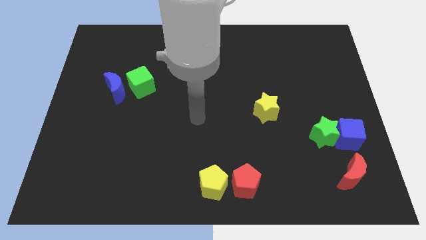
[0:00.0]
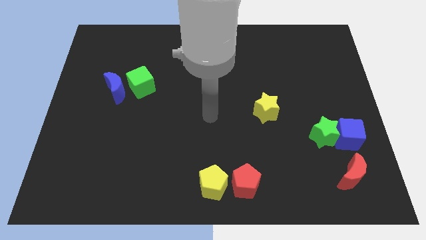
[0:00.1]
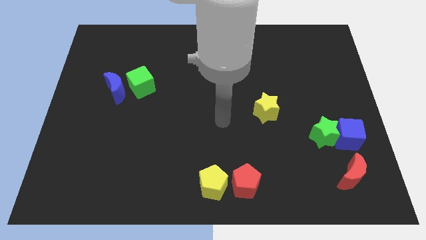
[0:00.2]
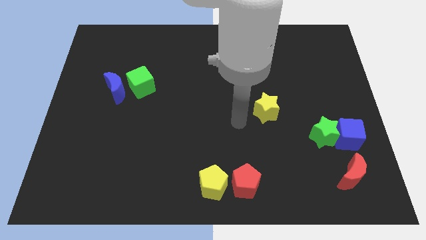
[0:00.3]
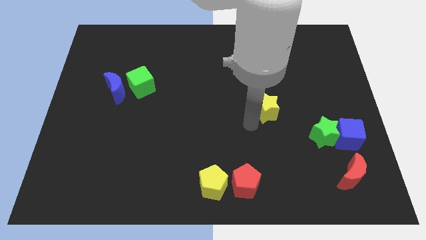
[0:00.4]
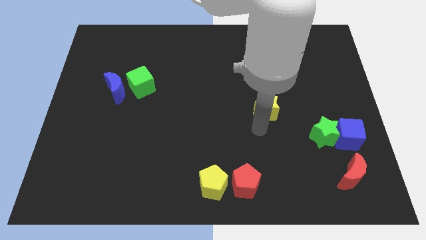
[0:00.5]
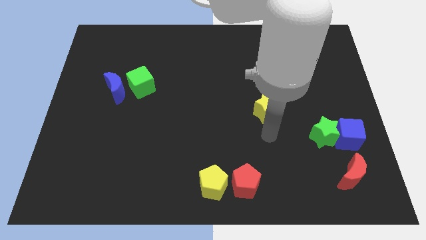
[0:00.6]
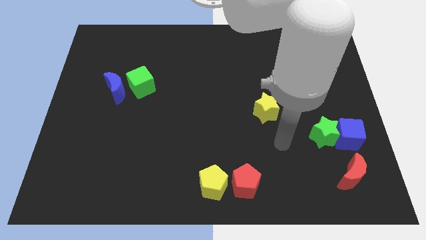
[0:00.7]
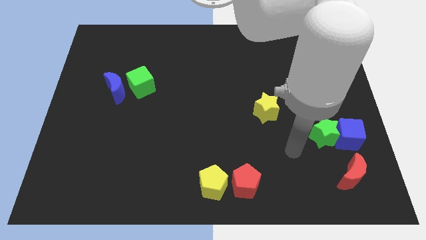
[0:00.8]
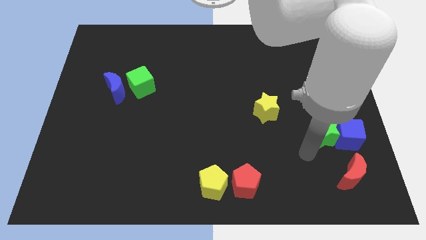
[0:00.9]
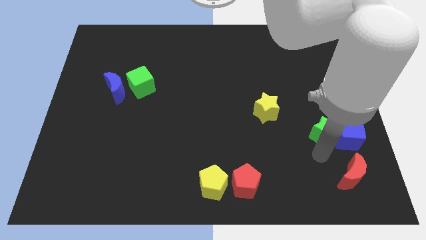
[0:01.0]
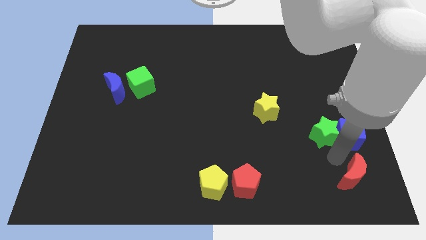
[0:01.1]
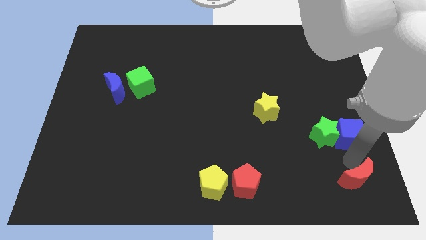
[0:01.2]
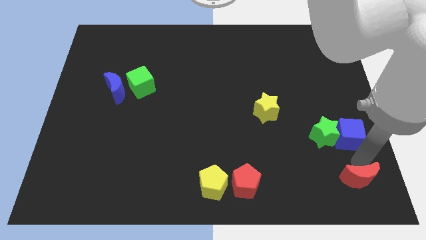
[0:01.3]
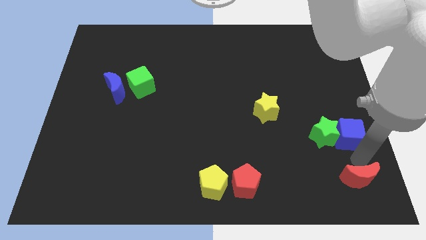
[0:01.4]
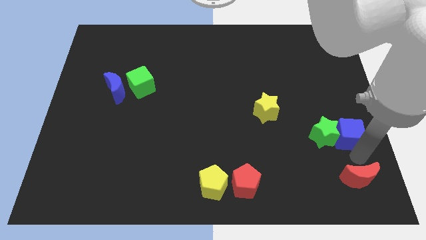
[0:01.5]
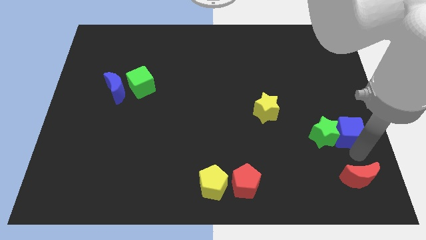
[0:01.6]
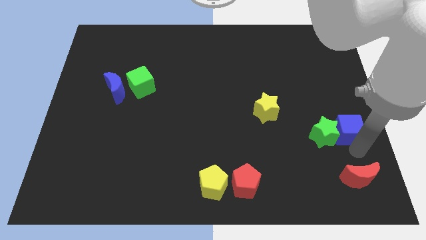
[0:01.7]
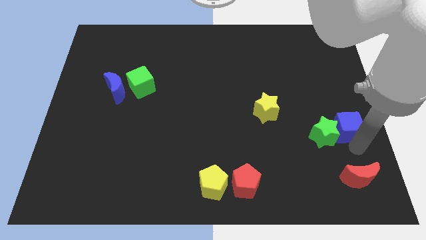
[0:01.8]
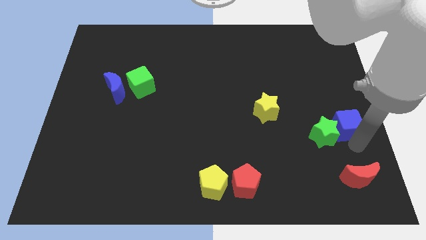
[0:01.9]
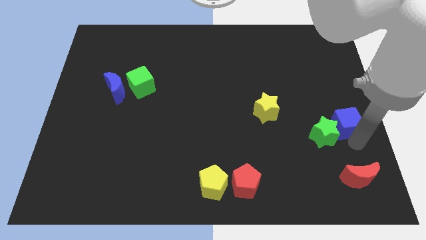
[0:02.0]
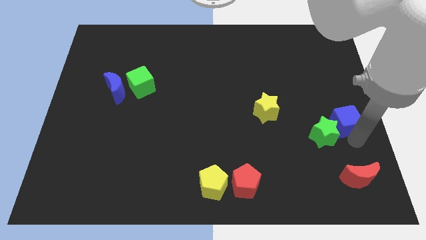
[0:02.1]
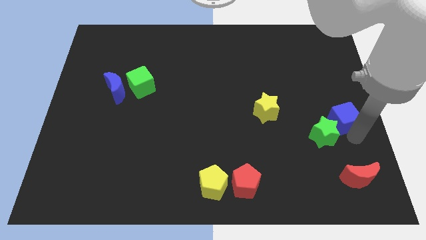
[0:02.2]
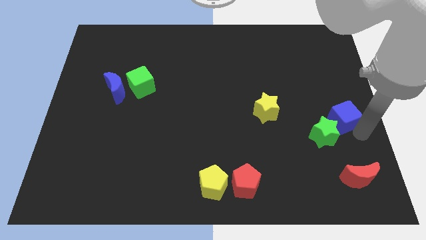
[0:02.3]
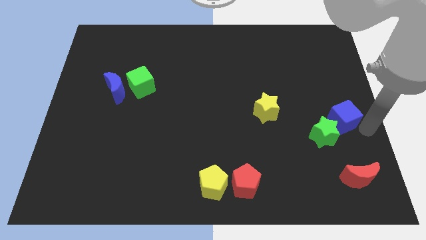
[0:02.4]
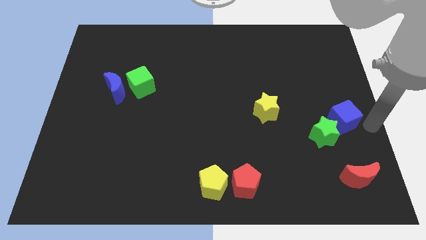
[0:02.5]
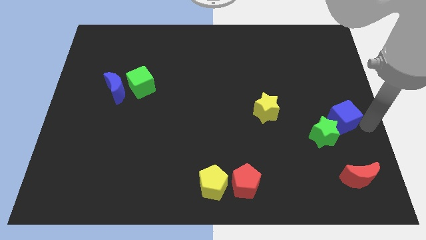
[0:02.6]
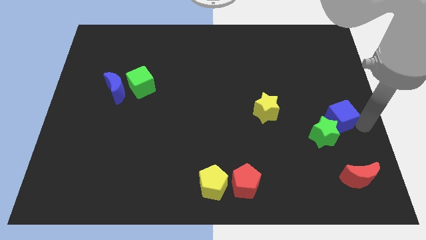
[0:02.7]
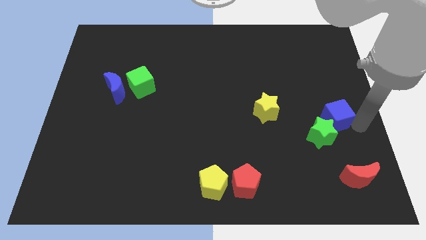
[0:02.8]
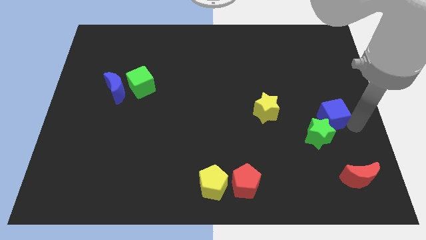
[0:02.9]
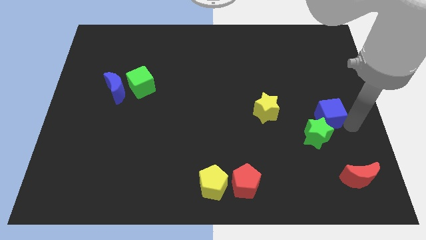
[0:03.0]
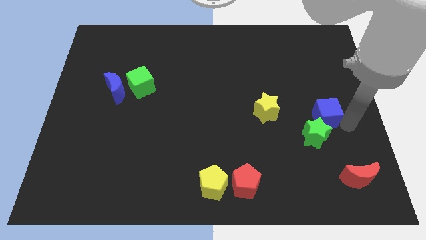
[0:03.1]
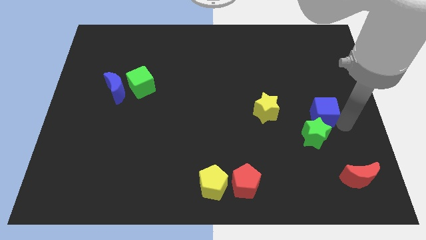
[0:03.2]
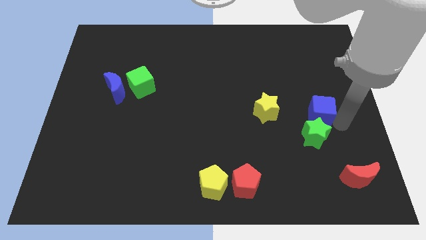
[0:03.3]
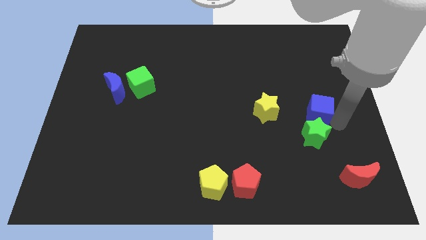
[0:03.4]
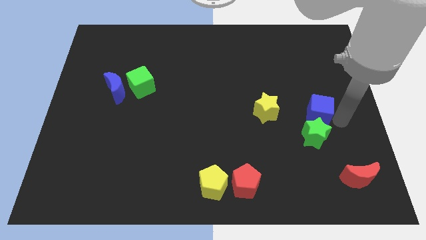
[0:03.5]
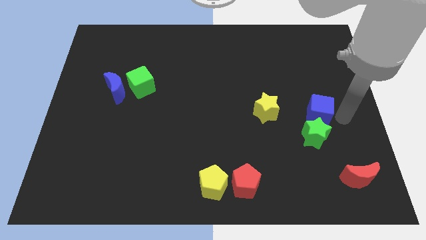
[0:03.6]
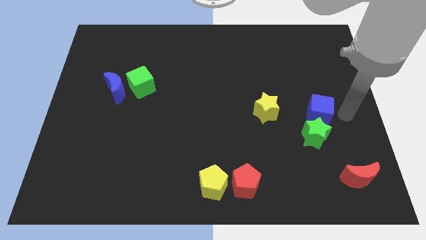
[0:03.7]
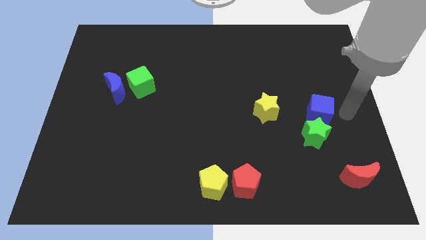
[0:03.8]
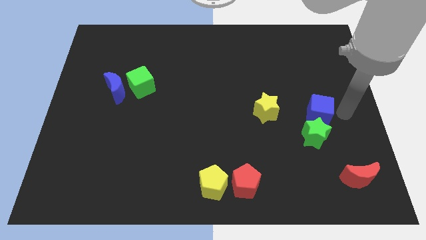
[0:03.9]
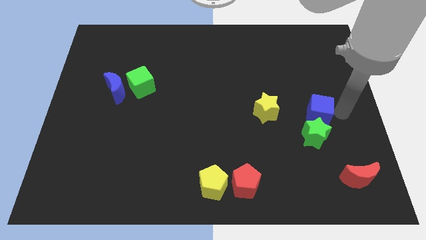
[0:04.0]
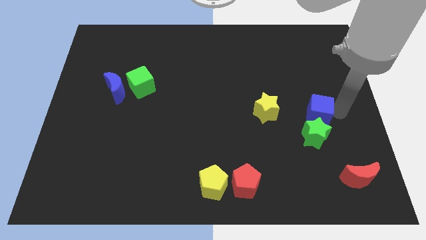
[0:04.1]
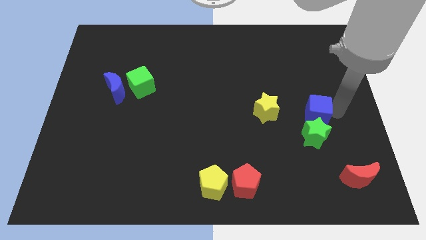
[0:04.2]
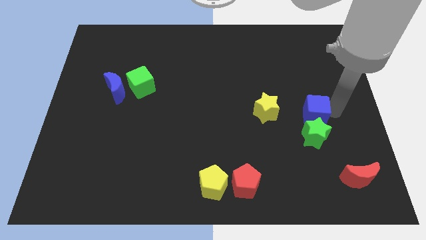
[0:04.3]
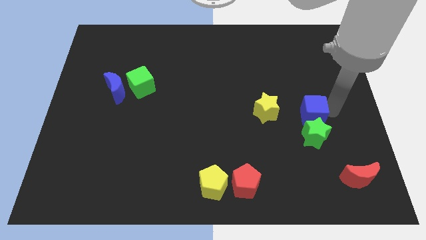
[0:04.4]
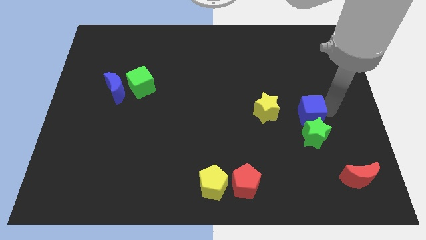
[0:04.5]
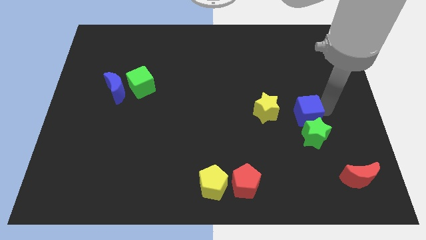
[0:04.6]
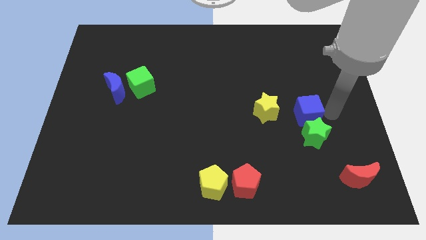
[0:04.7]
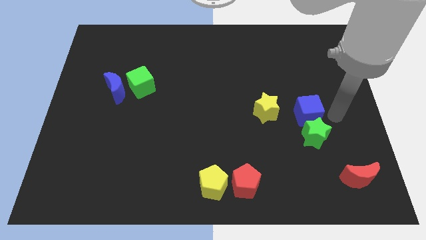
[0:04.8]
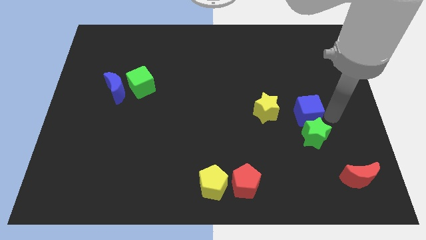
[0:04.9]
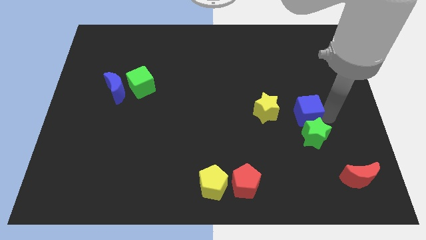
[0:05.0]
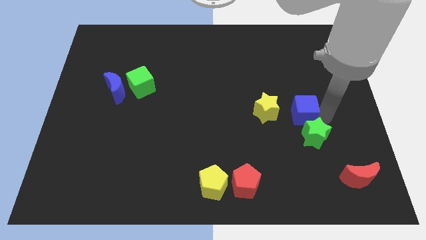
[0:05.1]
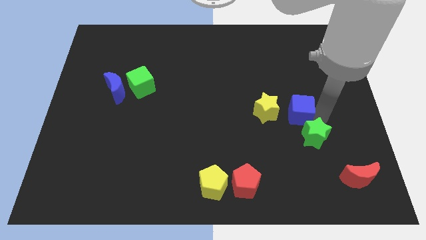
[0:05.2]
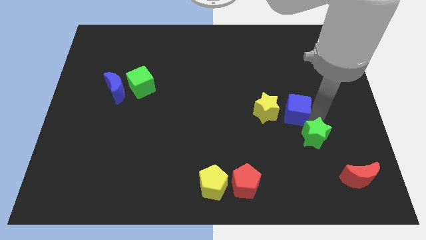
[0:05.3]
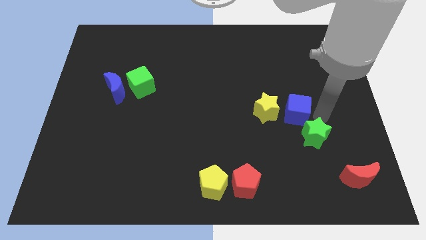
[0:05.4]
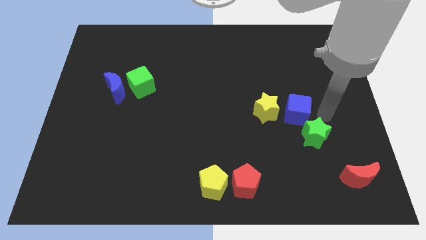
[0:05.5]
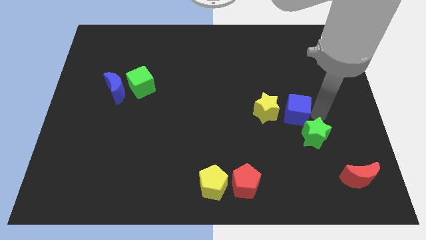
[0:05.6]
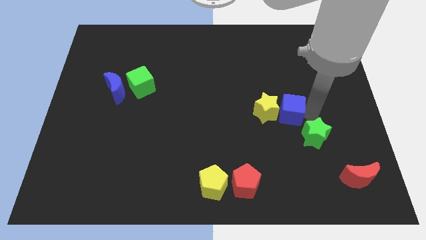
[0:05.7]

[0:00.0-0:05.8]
slide the blue cube close to the yellow star

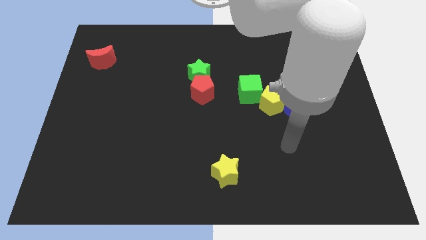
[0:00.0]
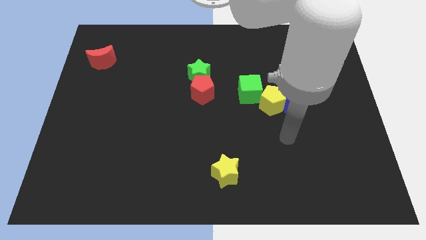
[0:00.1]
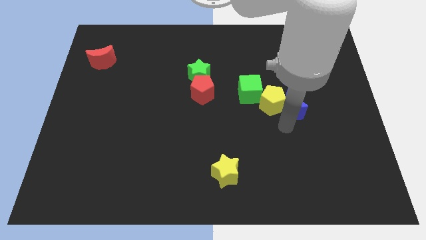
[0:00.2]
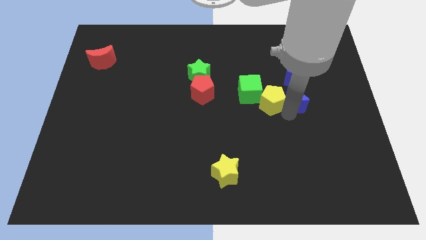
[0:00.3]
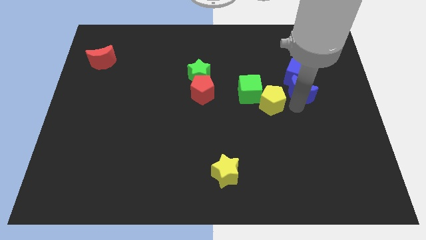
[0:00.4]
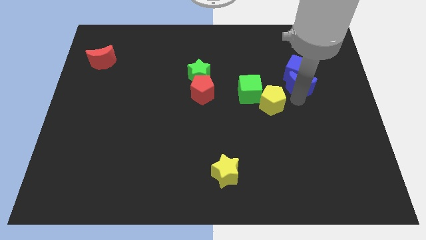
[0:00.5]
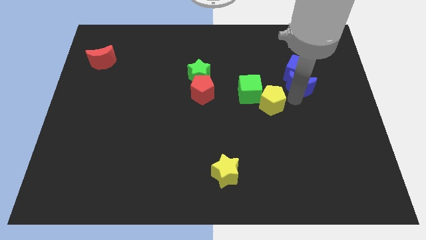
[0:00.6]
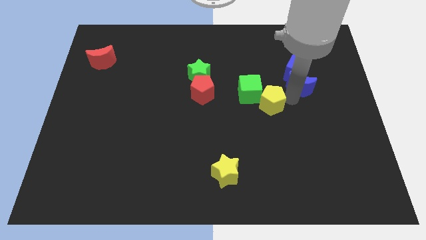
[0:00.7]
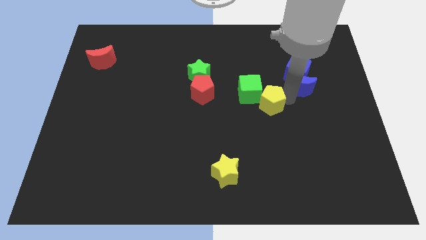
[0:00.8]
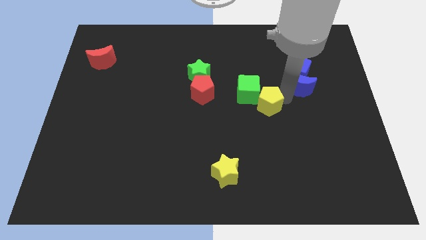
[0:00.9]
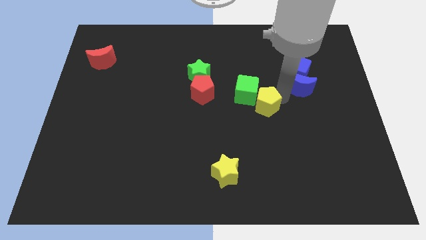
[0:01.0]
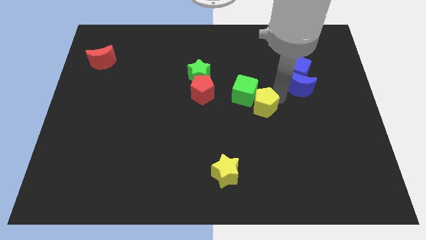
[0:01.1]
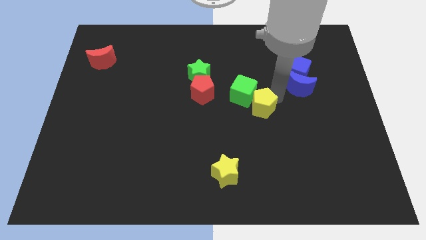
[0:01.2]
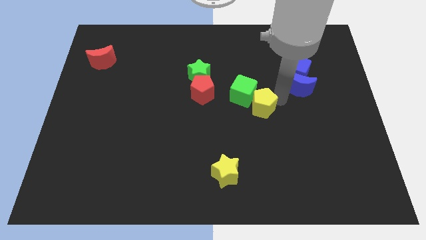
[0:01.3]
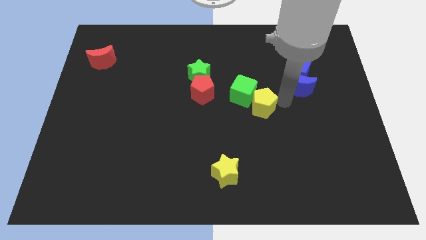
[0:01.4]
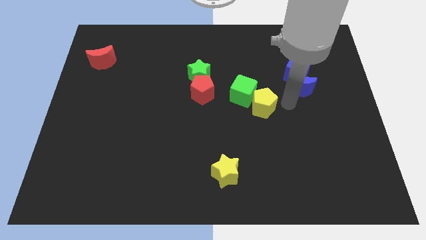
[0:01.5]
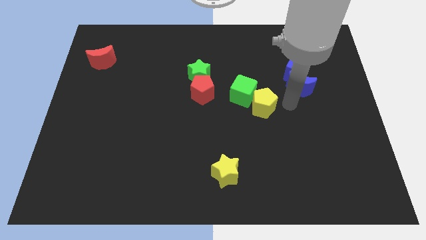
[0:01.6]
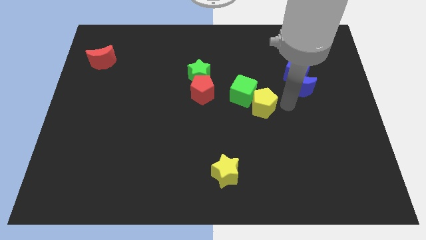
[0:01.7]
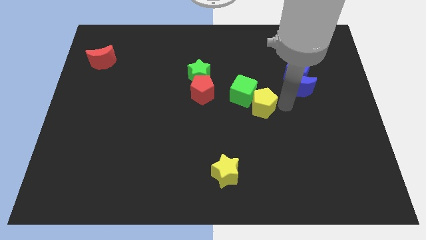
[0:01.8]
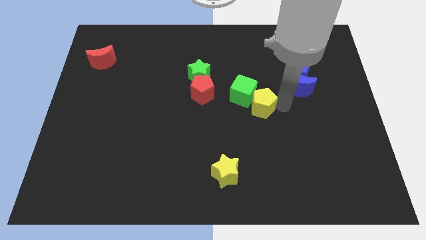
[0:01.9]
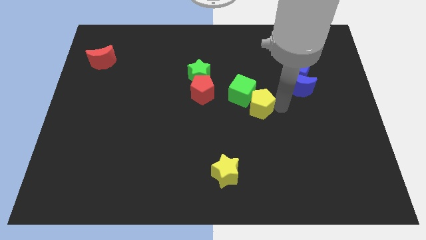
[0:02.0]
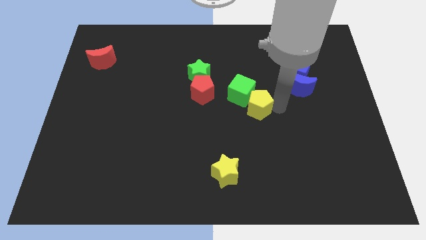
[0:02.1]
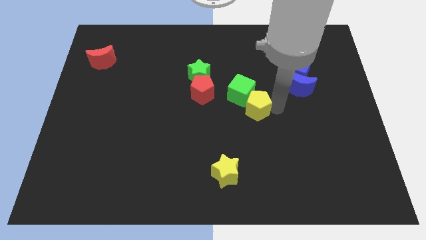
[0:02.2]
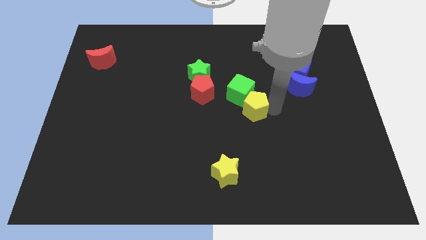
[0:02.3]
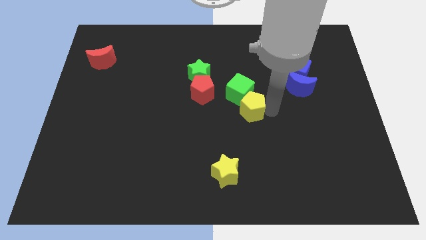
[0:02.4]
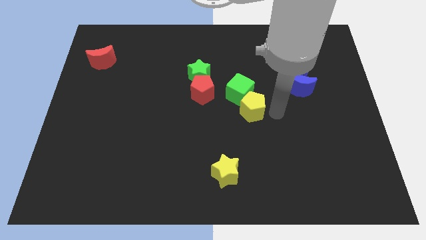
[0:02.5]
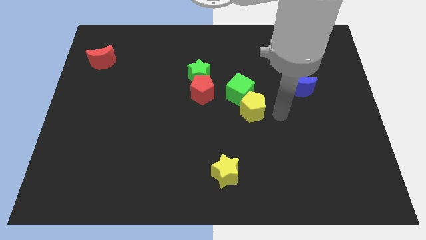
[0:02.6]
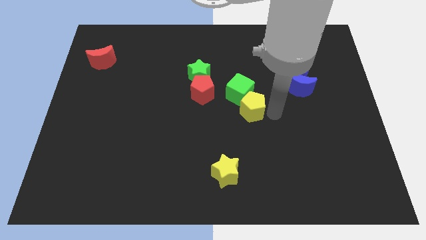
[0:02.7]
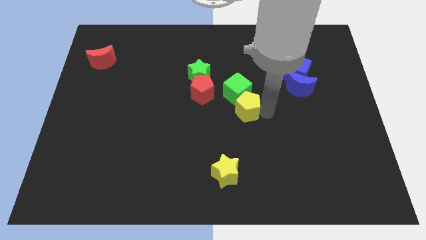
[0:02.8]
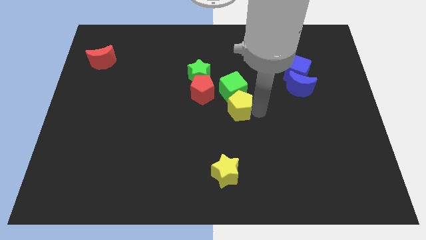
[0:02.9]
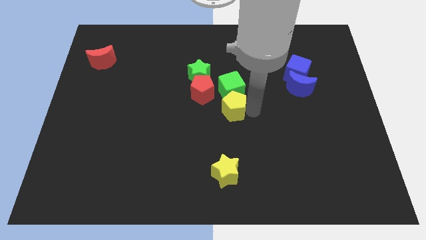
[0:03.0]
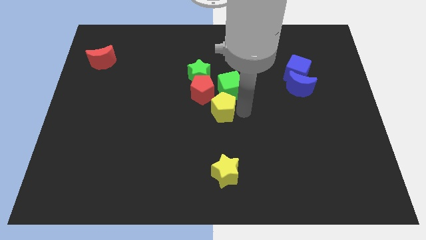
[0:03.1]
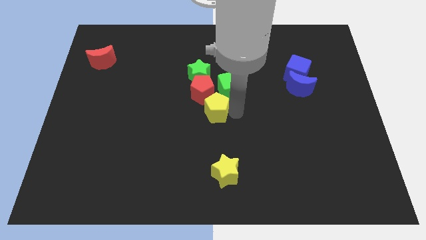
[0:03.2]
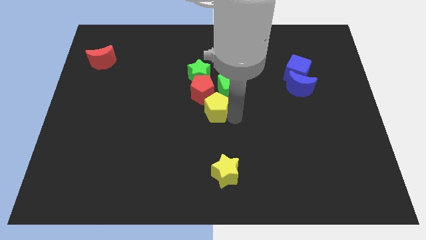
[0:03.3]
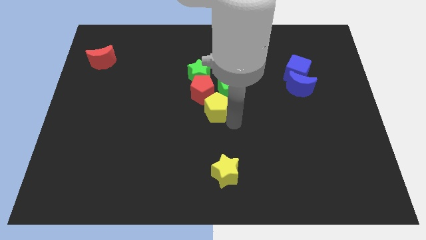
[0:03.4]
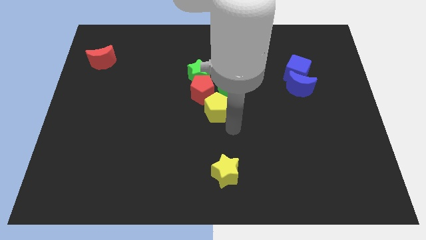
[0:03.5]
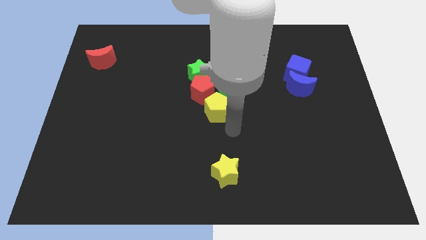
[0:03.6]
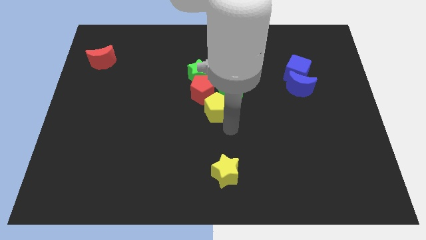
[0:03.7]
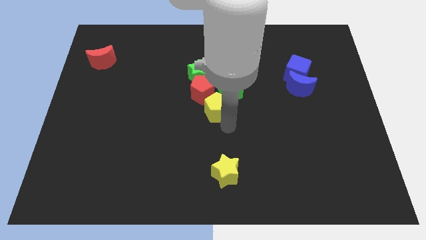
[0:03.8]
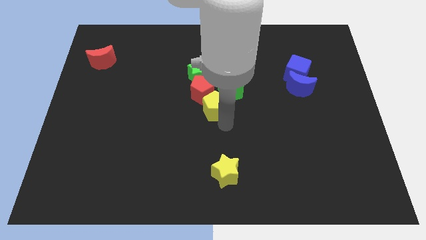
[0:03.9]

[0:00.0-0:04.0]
move the yellow pentagon close to the red pentagon
